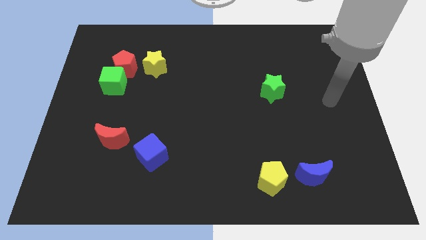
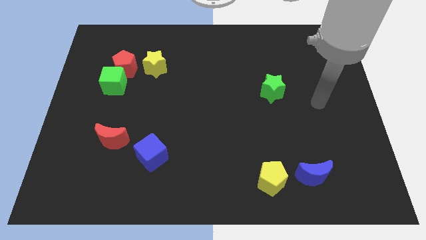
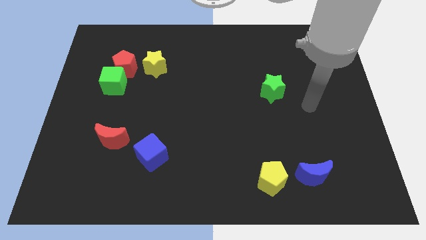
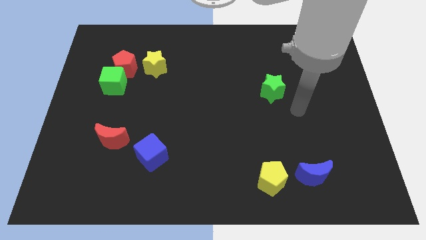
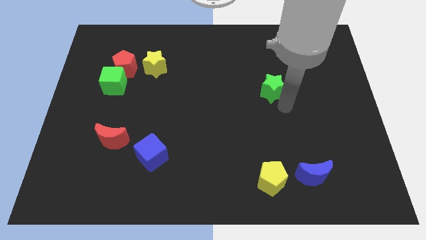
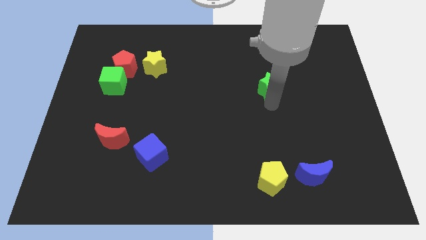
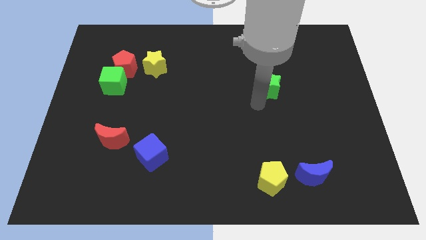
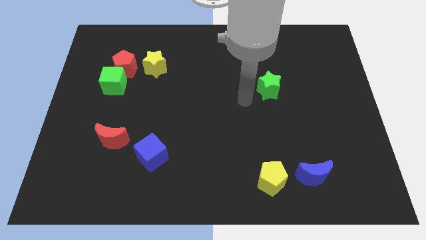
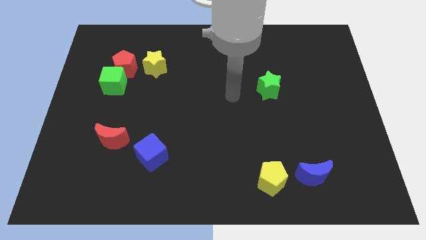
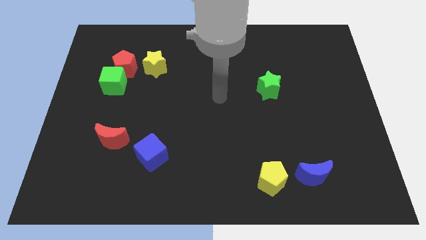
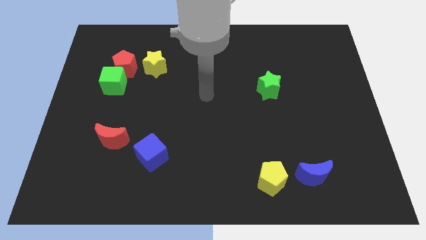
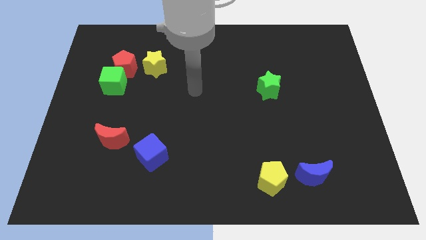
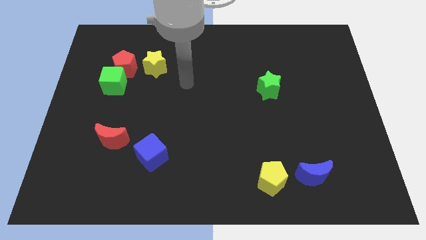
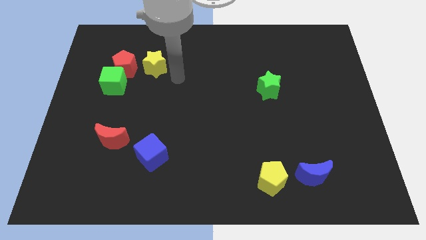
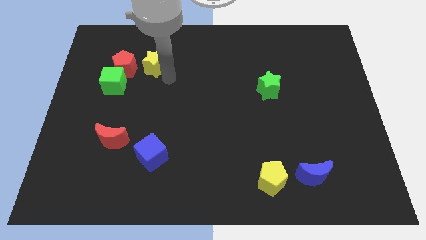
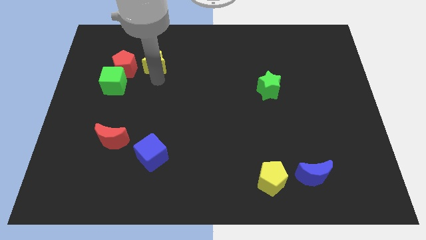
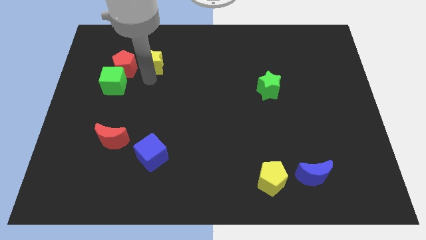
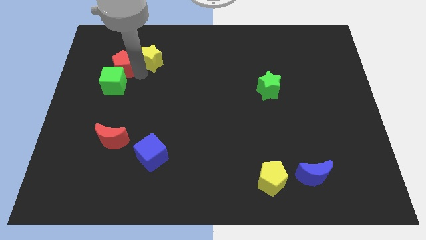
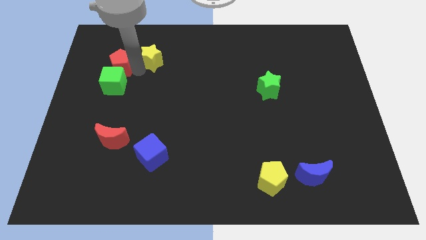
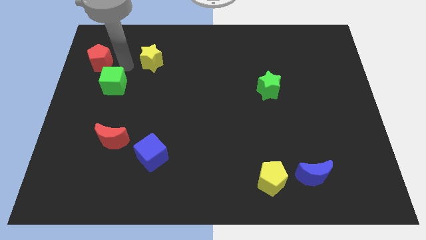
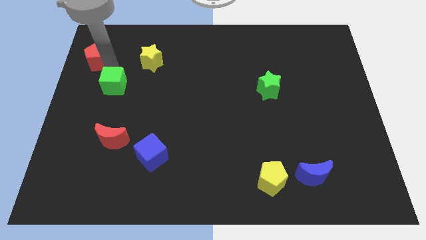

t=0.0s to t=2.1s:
pull the green cube apart from the red pentagon

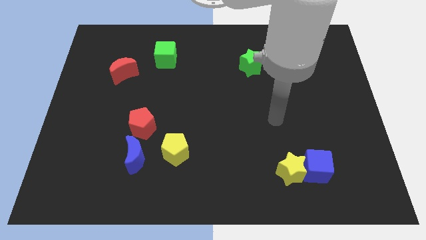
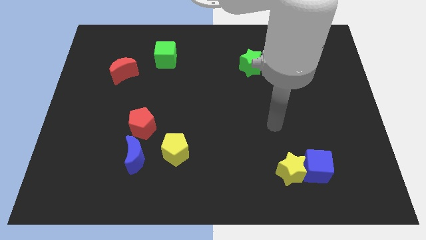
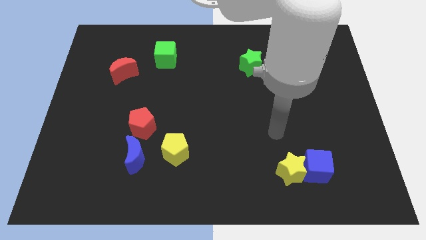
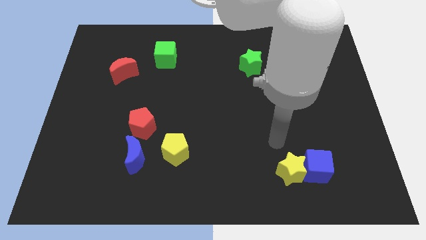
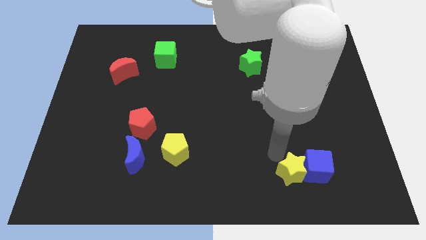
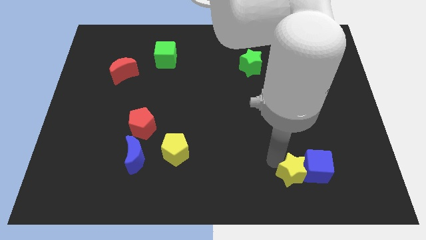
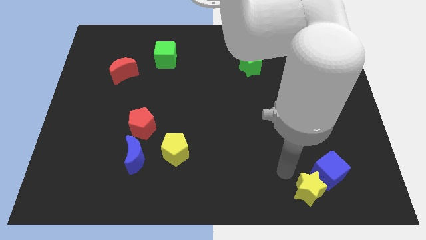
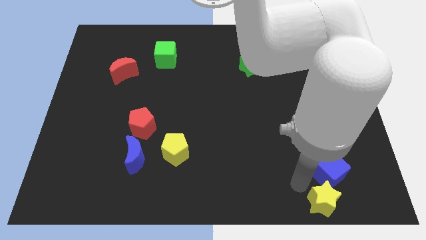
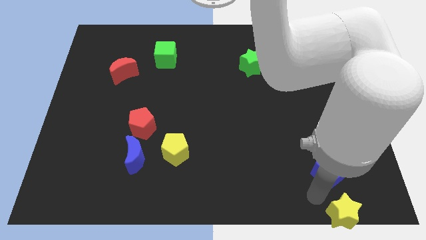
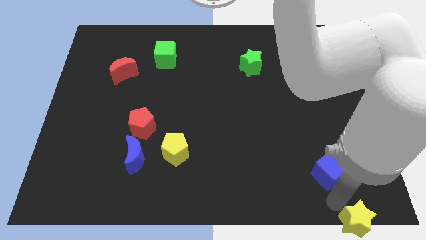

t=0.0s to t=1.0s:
move the blue cube away from the yellow star

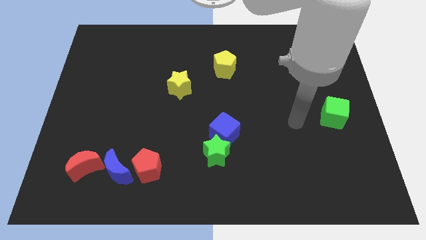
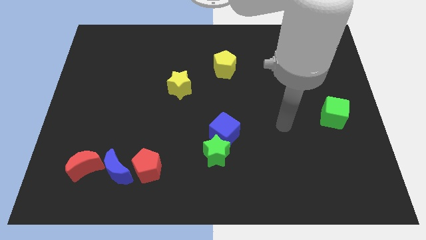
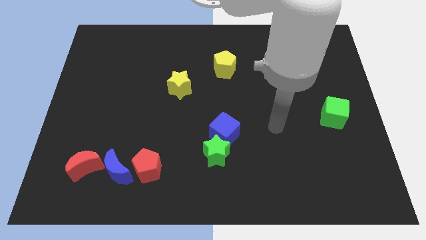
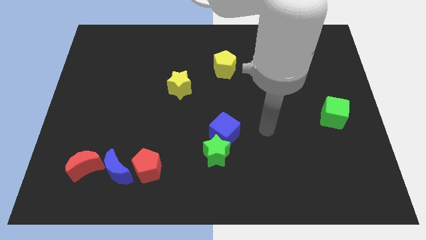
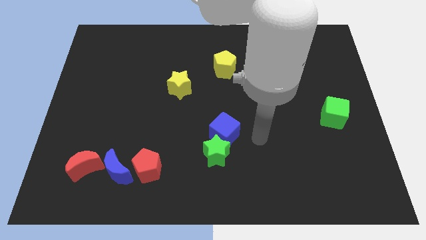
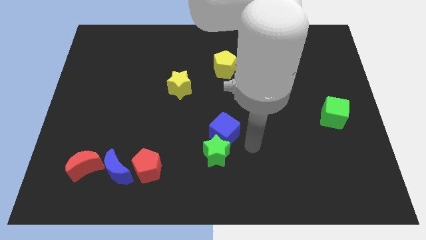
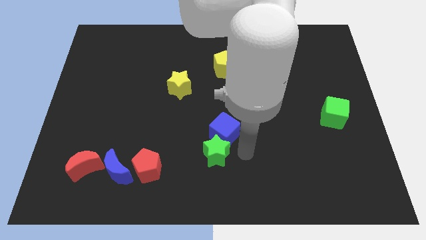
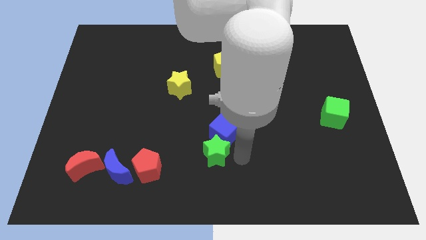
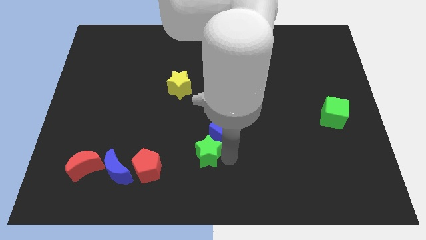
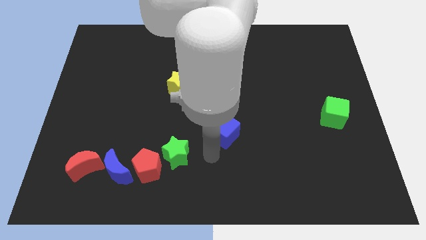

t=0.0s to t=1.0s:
separate the blue cube from the green star

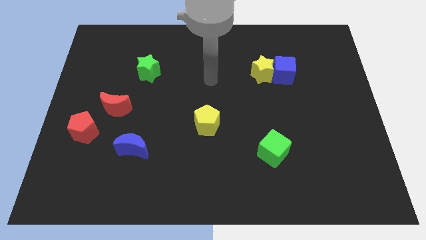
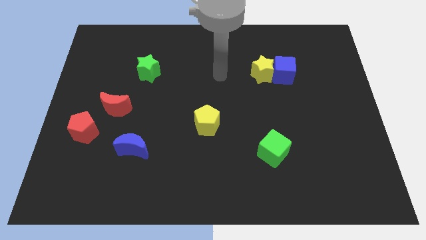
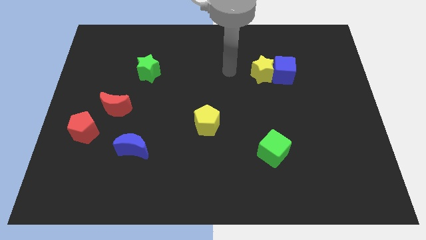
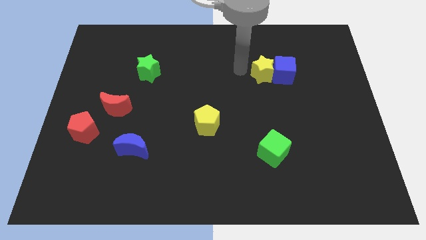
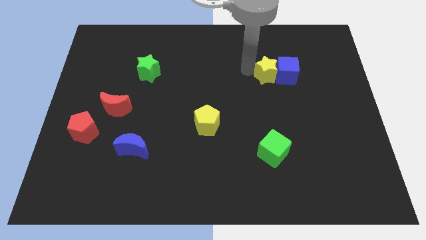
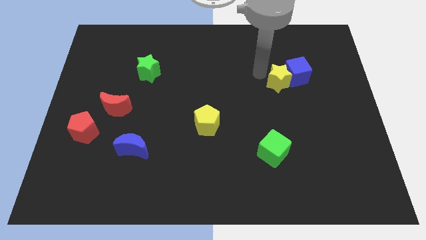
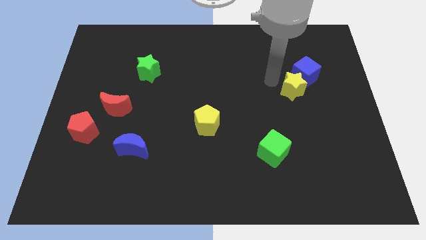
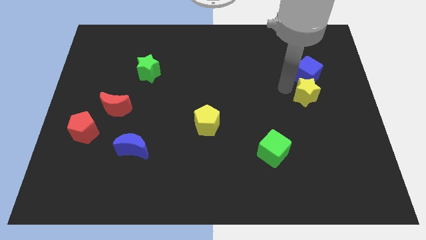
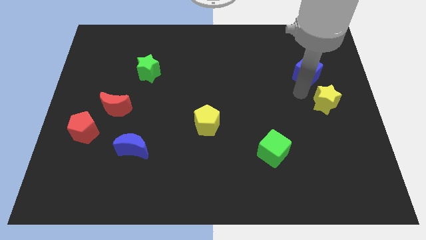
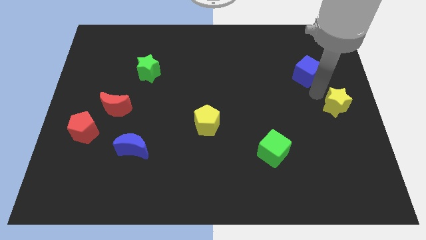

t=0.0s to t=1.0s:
pull the blue cube apart from the yellow star

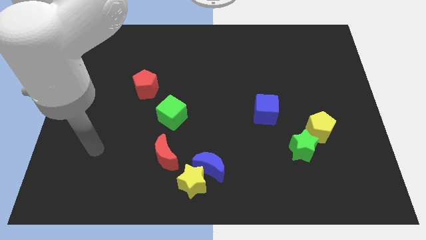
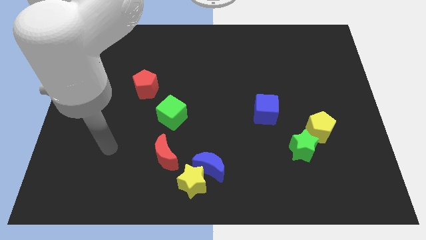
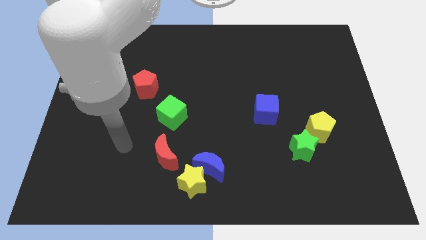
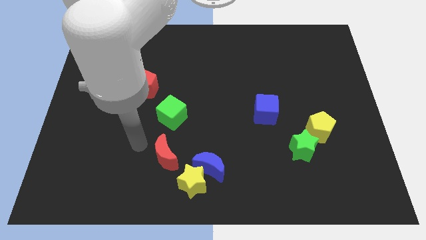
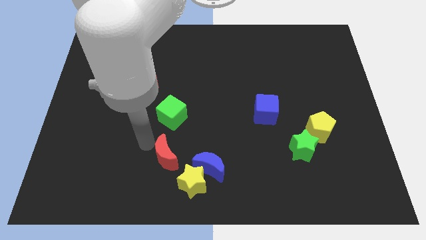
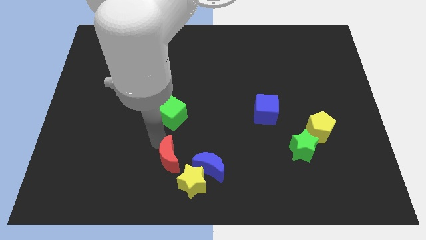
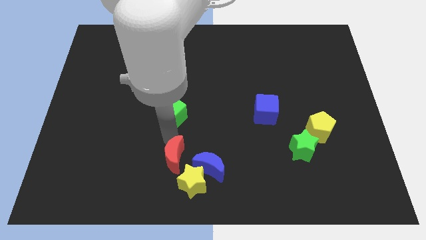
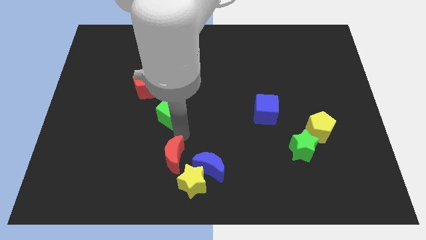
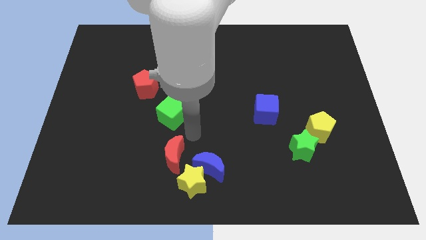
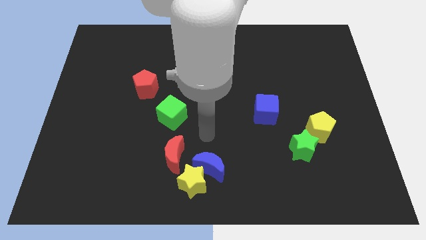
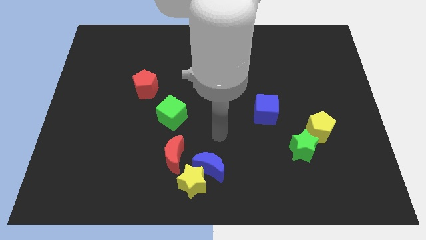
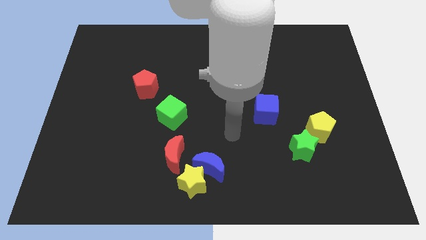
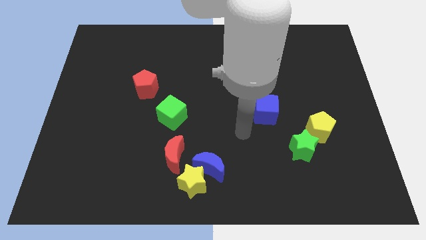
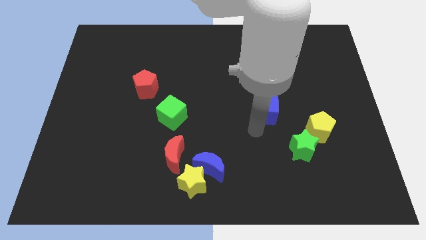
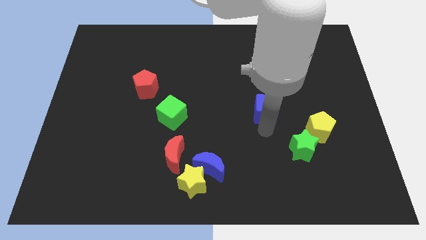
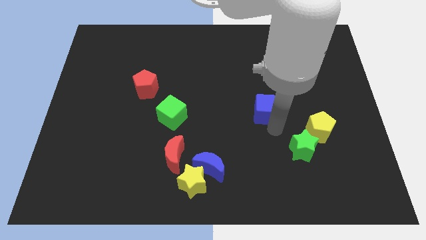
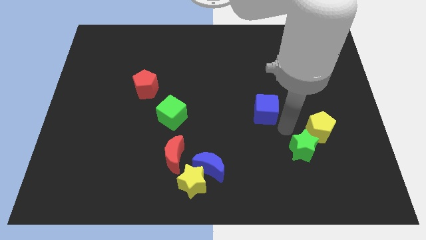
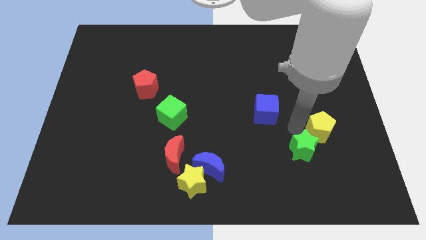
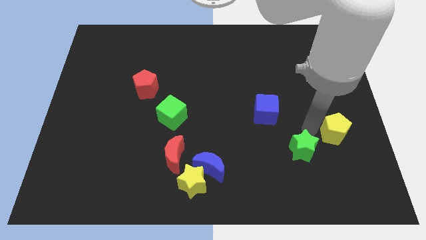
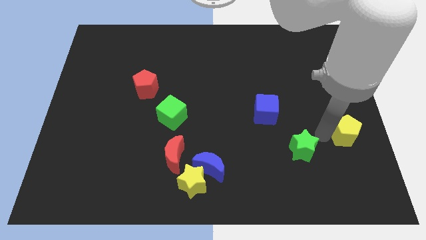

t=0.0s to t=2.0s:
move the green star away from the yellow pentagon

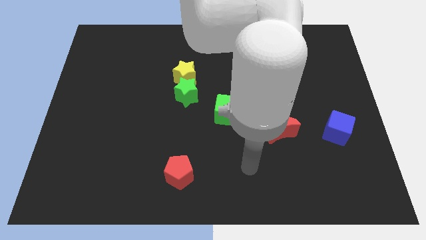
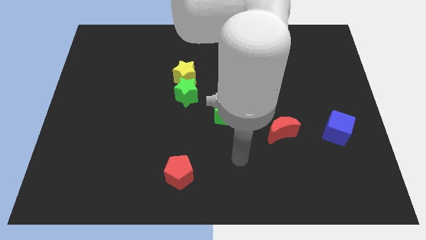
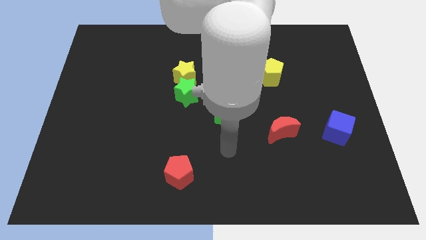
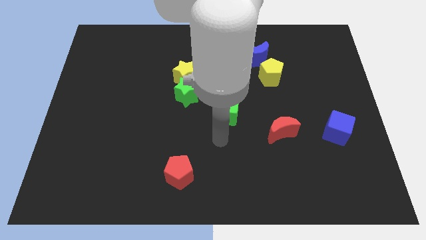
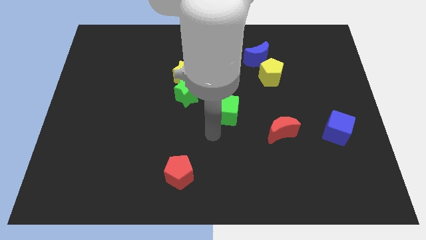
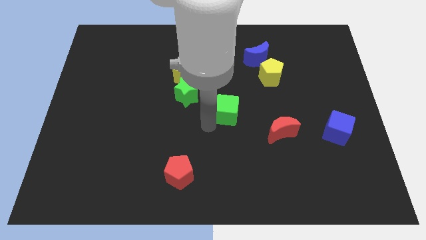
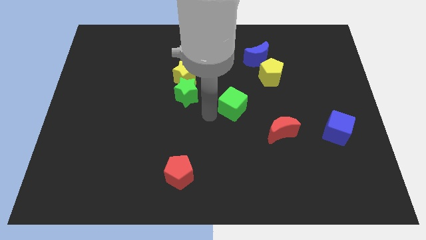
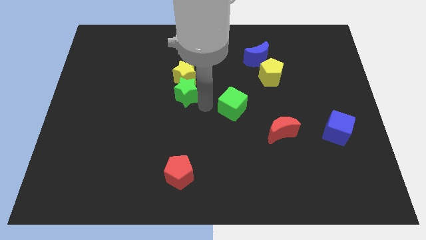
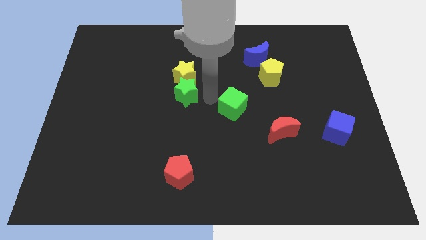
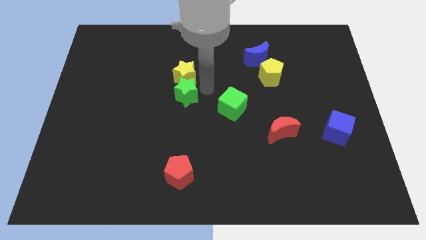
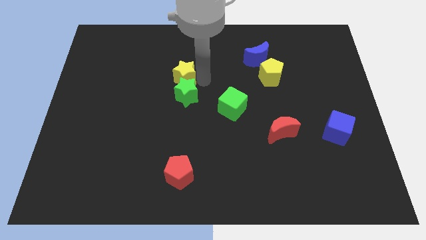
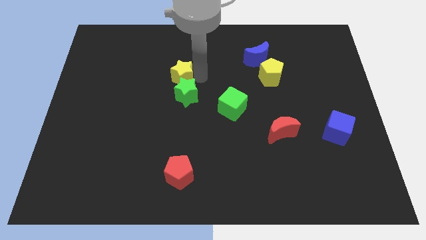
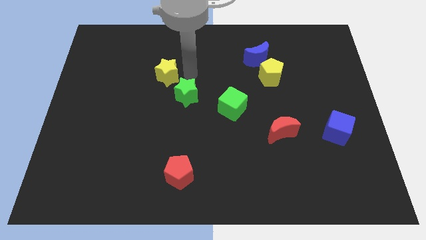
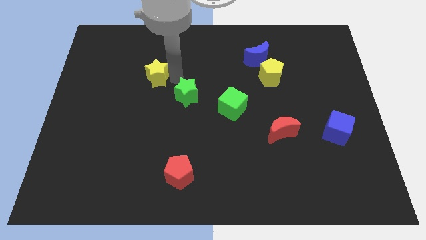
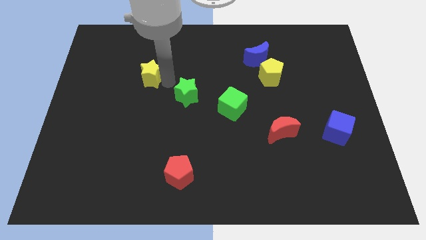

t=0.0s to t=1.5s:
separate the green star from the yellow star

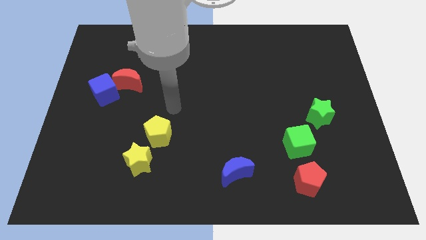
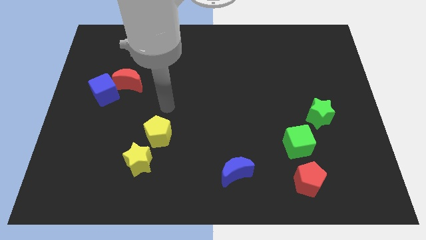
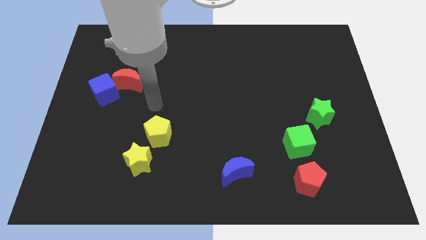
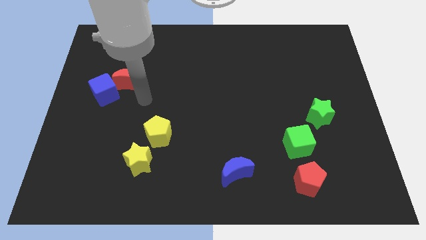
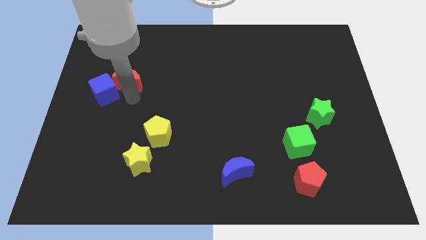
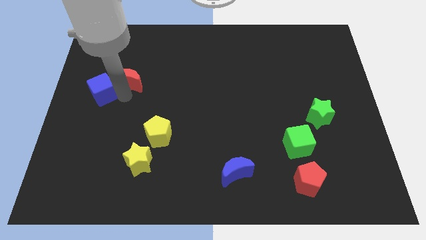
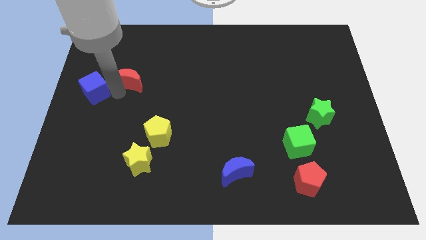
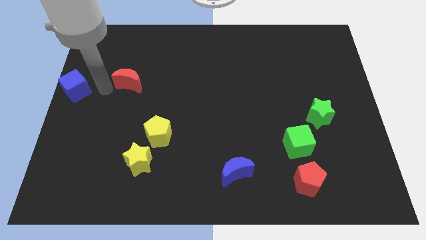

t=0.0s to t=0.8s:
pull the red moon apart from the blue cube
